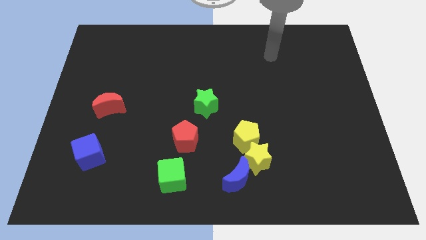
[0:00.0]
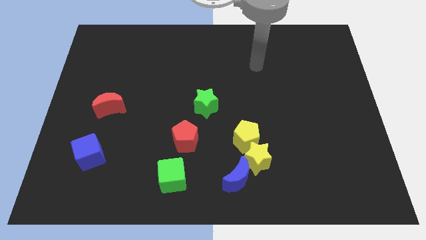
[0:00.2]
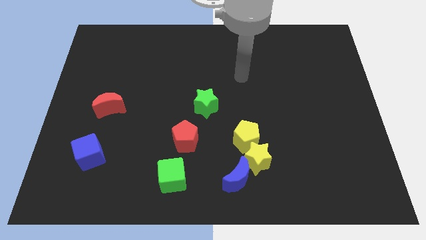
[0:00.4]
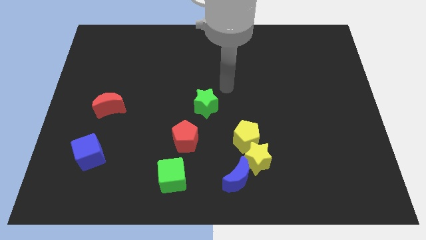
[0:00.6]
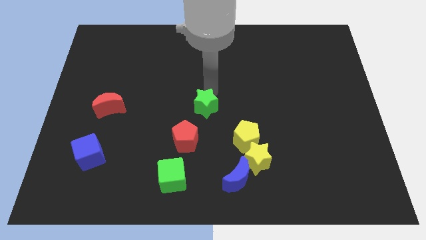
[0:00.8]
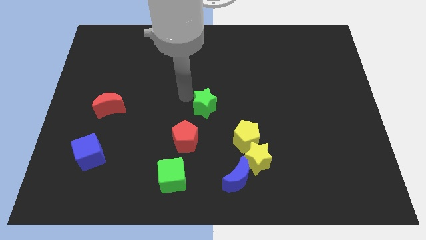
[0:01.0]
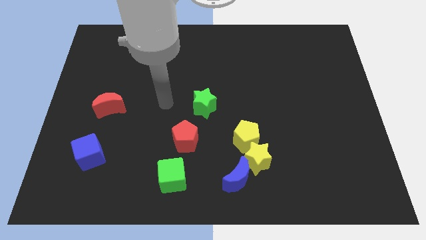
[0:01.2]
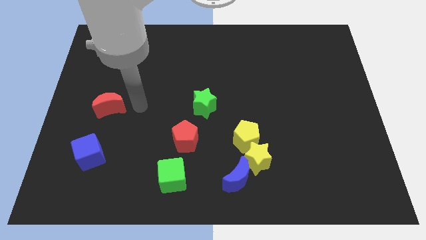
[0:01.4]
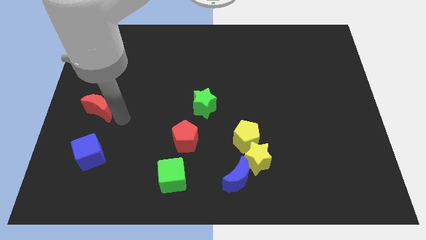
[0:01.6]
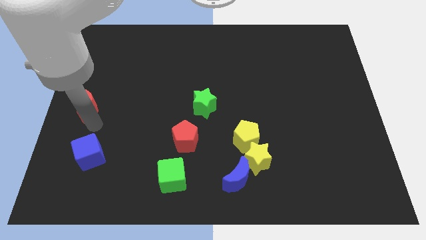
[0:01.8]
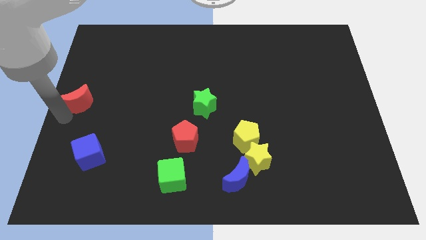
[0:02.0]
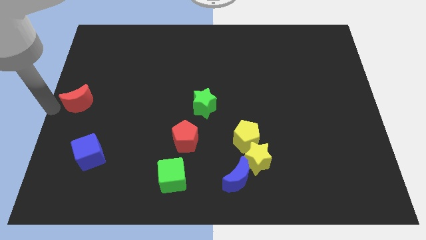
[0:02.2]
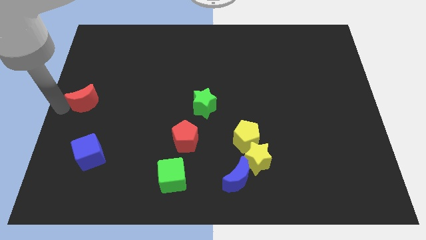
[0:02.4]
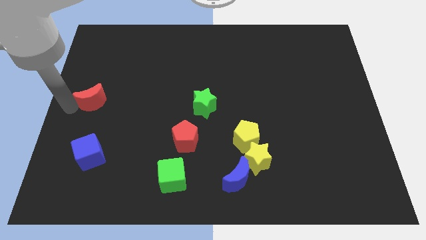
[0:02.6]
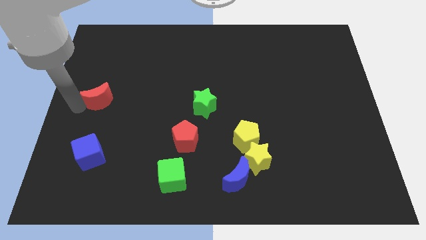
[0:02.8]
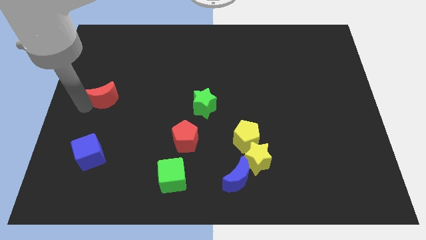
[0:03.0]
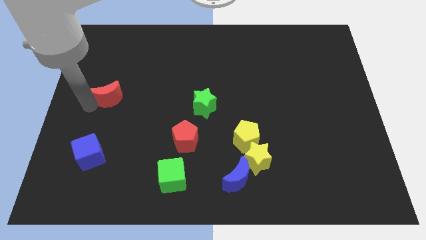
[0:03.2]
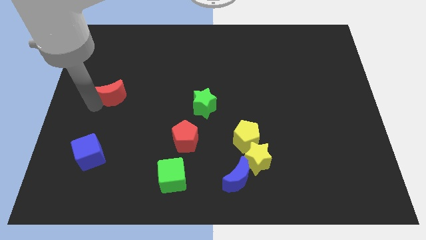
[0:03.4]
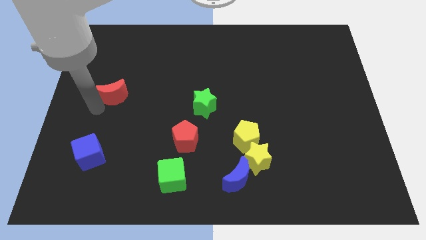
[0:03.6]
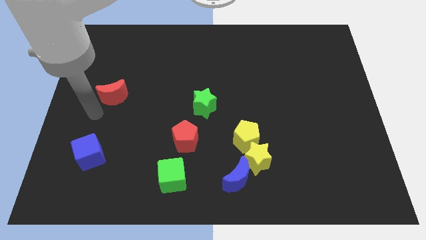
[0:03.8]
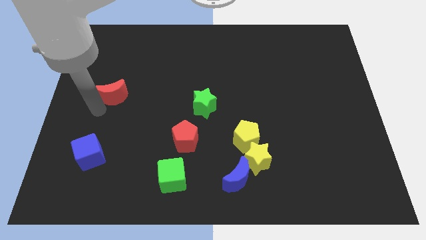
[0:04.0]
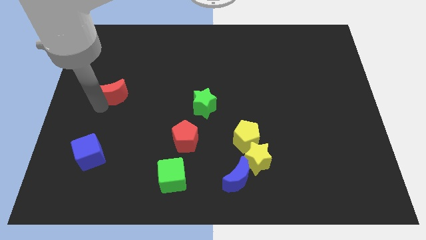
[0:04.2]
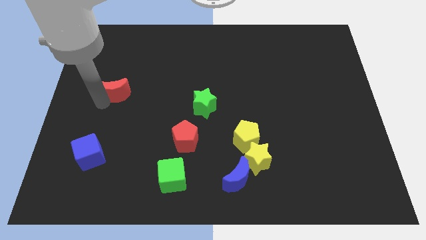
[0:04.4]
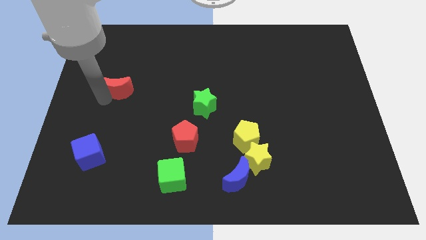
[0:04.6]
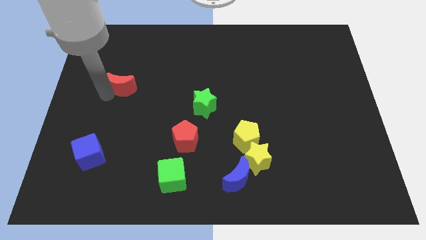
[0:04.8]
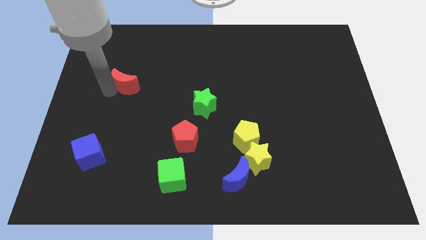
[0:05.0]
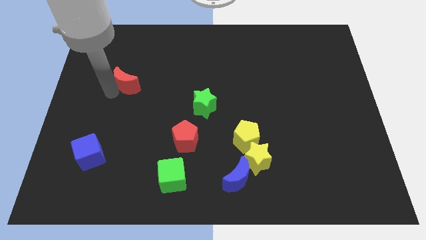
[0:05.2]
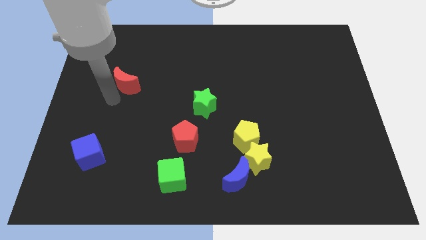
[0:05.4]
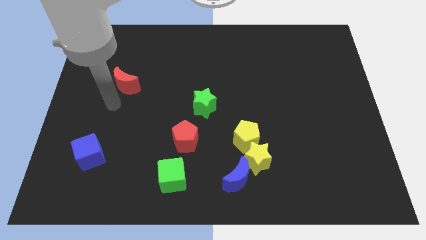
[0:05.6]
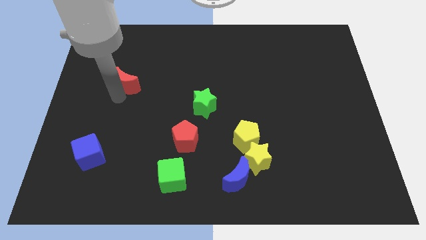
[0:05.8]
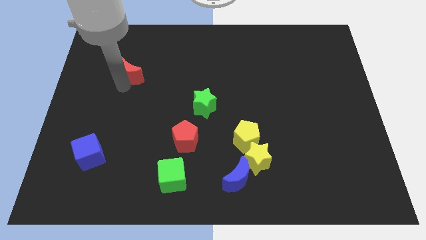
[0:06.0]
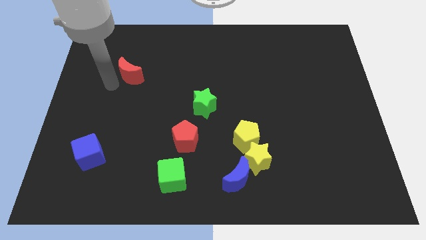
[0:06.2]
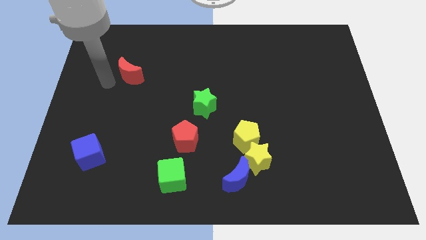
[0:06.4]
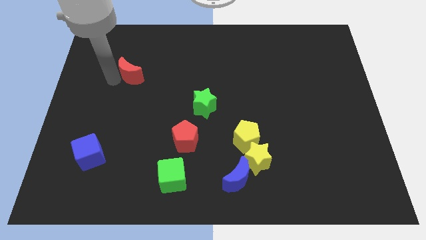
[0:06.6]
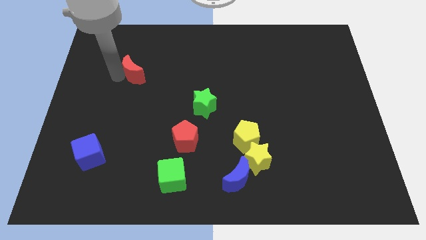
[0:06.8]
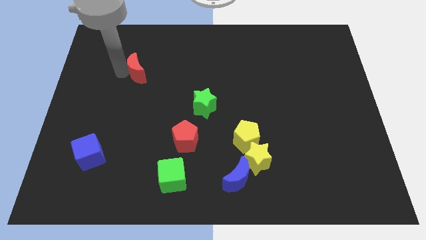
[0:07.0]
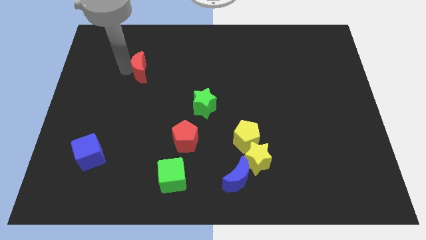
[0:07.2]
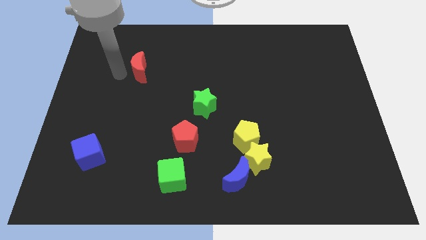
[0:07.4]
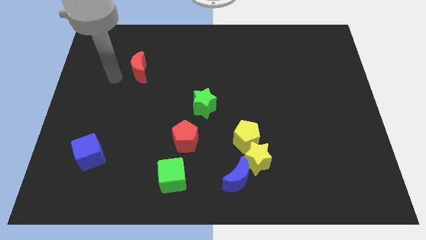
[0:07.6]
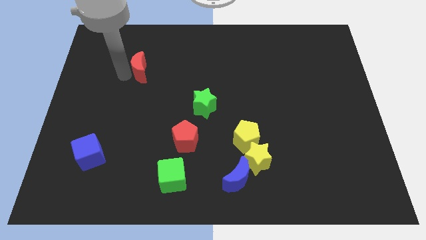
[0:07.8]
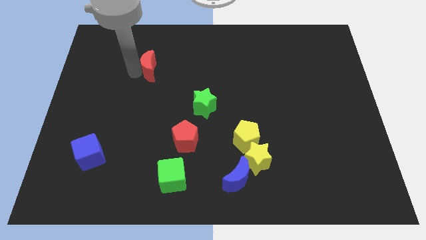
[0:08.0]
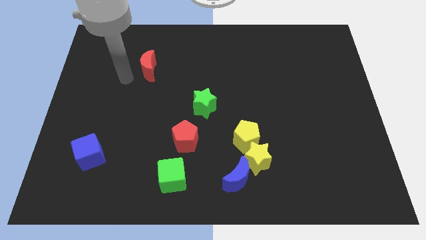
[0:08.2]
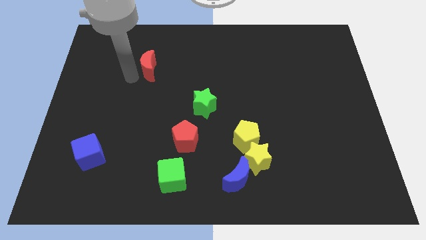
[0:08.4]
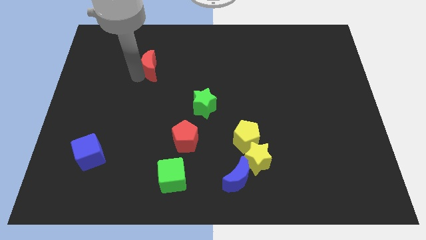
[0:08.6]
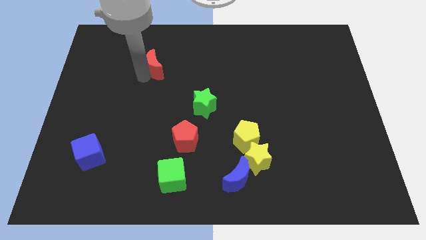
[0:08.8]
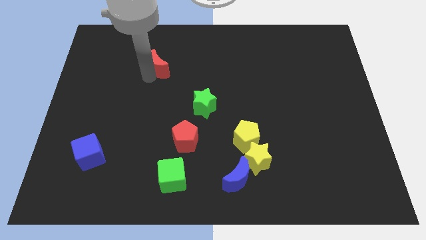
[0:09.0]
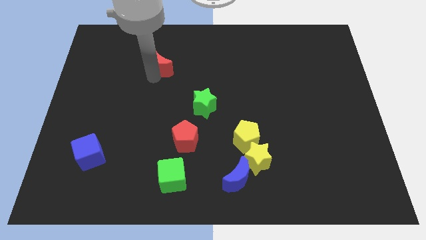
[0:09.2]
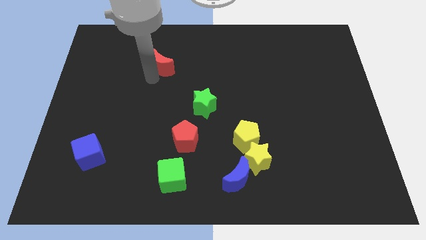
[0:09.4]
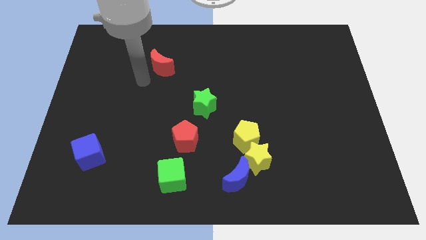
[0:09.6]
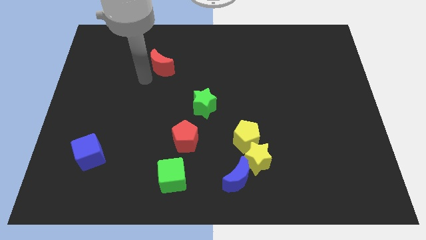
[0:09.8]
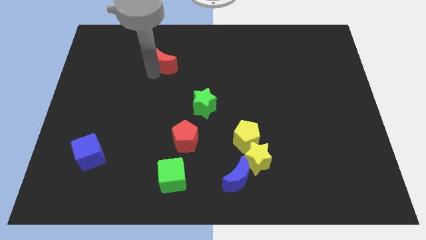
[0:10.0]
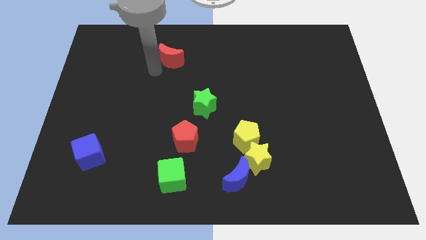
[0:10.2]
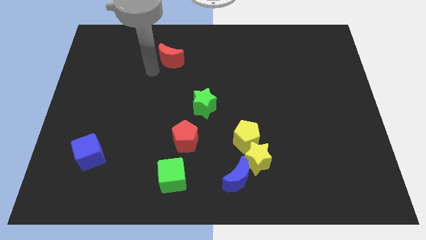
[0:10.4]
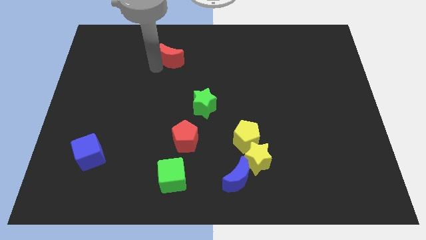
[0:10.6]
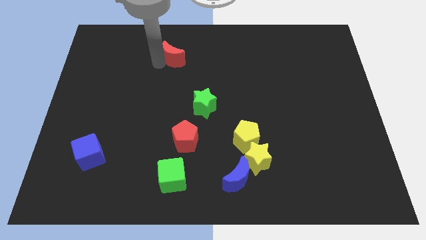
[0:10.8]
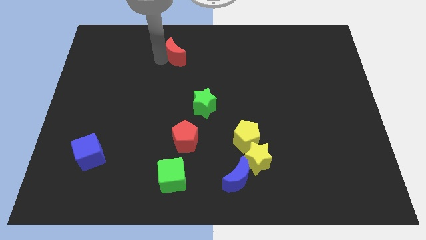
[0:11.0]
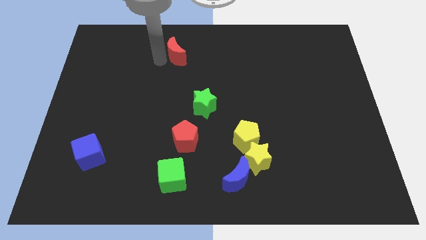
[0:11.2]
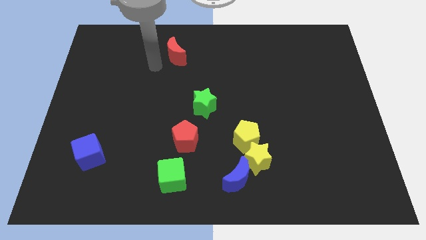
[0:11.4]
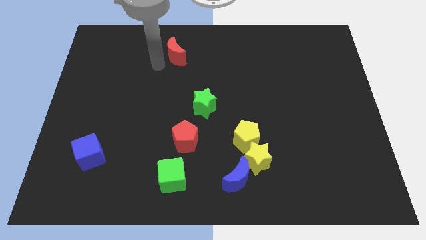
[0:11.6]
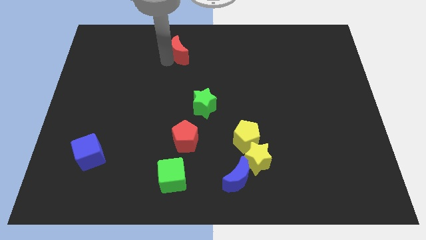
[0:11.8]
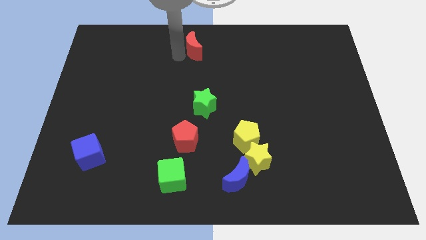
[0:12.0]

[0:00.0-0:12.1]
push the red moon to the towards your base
